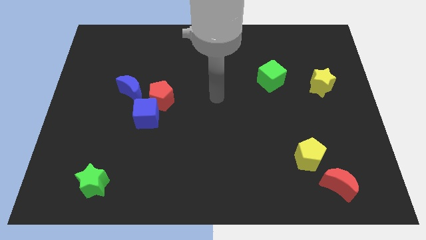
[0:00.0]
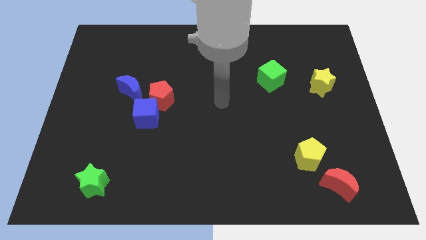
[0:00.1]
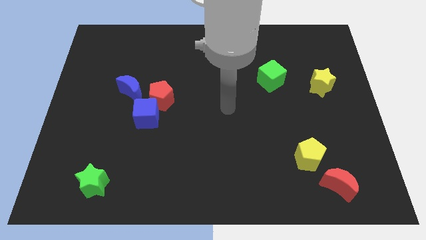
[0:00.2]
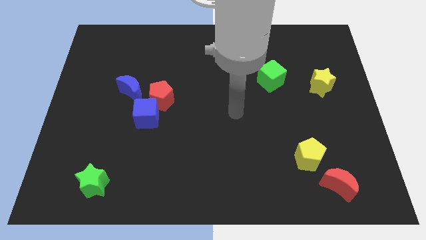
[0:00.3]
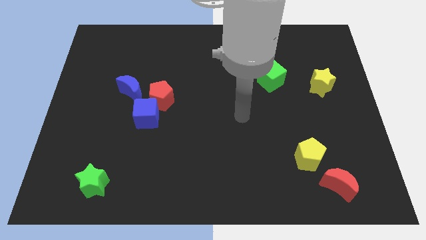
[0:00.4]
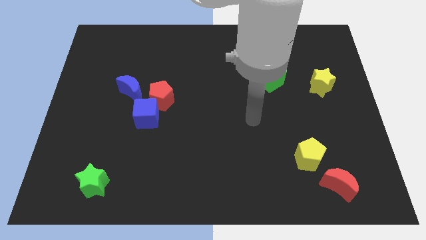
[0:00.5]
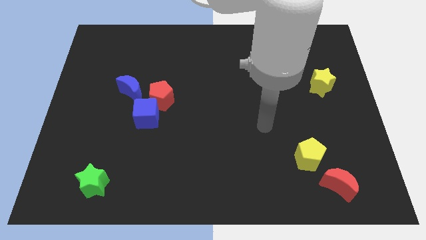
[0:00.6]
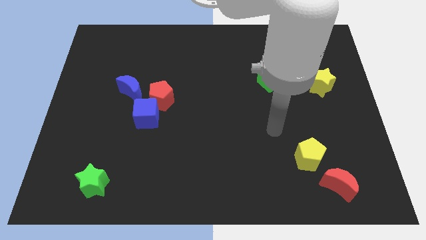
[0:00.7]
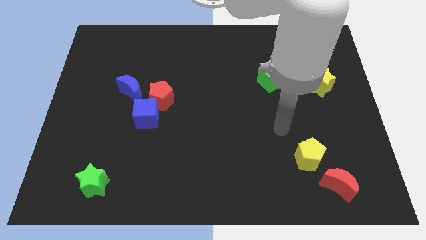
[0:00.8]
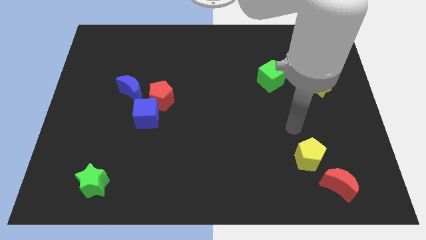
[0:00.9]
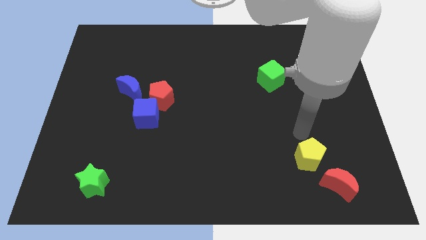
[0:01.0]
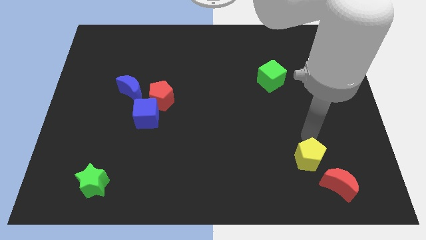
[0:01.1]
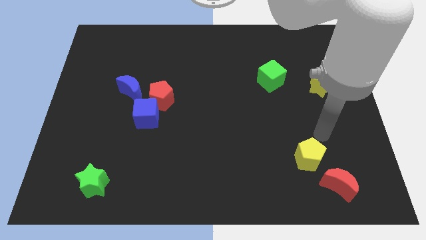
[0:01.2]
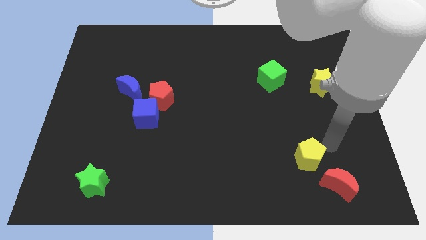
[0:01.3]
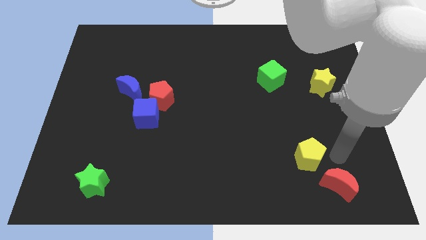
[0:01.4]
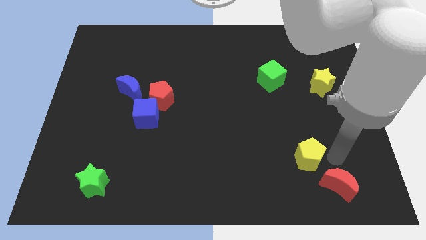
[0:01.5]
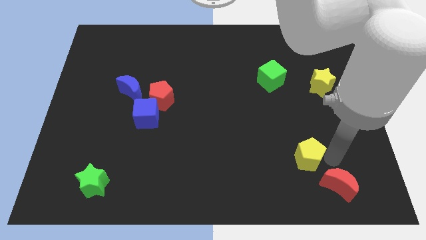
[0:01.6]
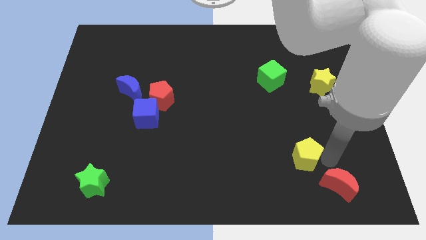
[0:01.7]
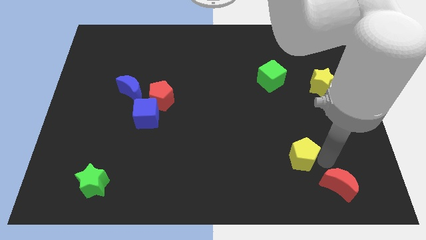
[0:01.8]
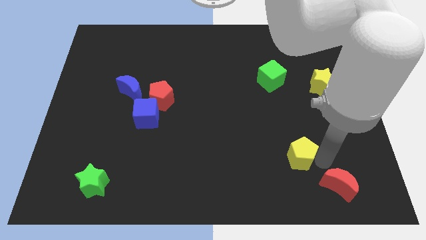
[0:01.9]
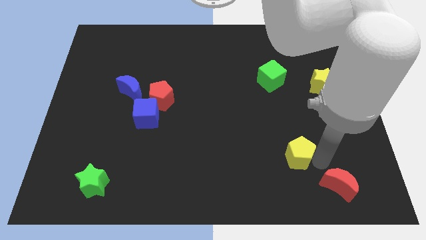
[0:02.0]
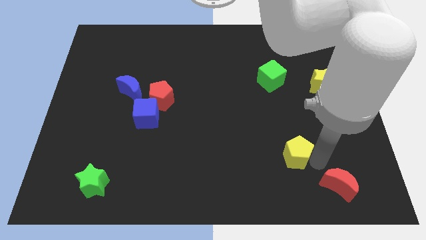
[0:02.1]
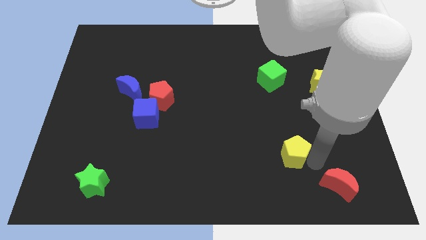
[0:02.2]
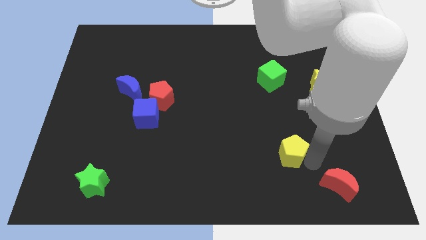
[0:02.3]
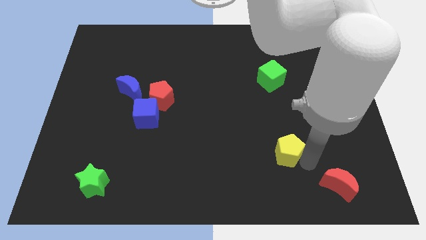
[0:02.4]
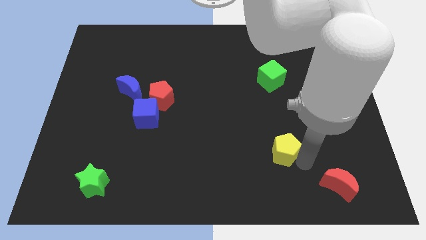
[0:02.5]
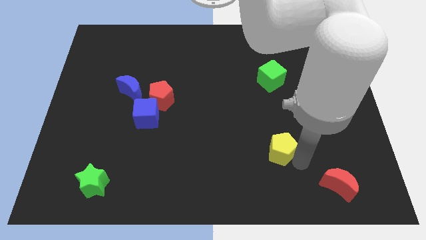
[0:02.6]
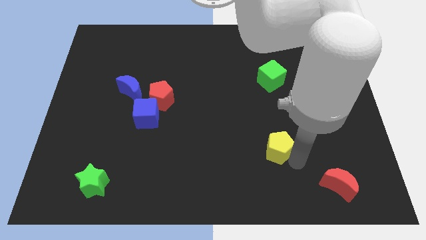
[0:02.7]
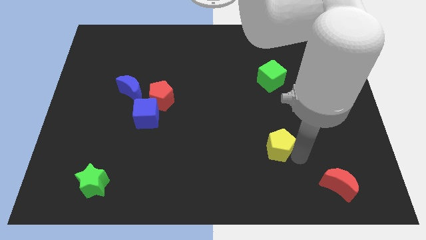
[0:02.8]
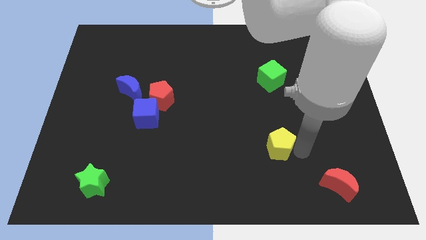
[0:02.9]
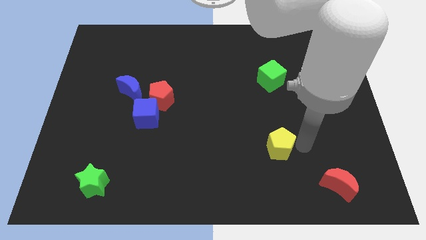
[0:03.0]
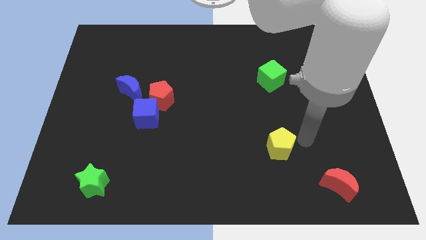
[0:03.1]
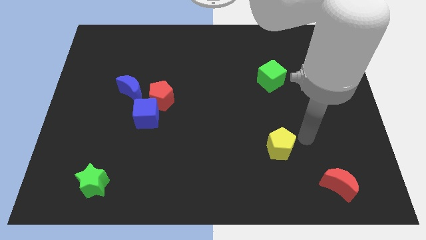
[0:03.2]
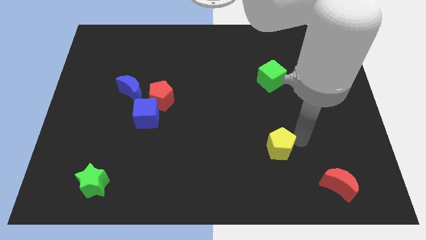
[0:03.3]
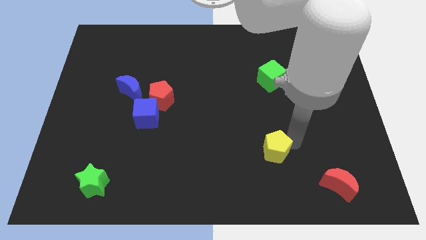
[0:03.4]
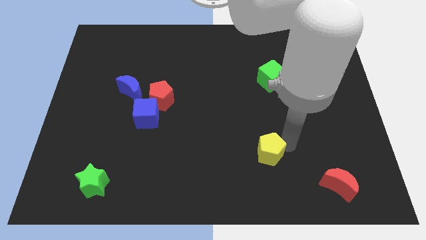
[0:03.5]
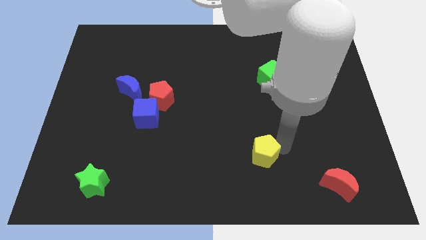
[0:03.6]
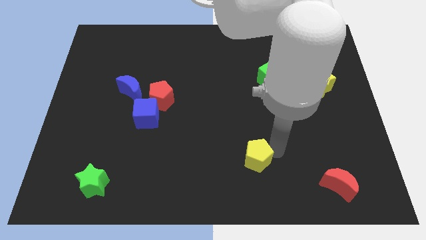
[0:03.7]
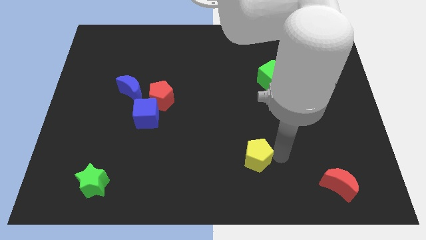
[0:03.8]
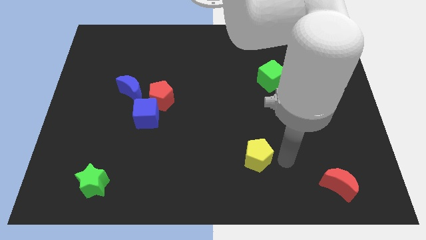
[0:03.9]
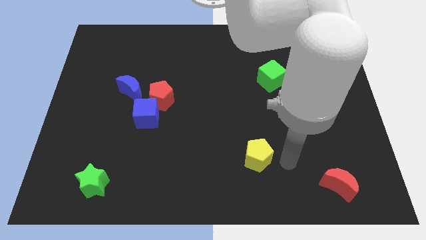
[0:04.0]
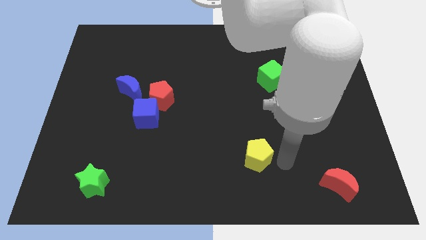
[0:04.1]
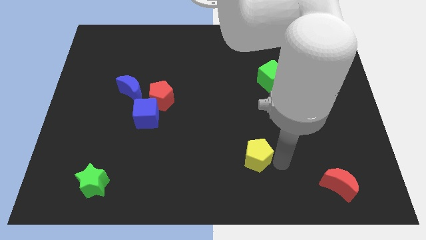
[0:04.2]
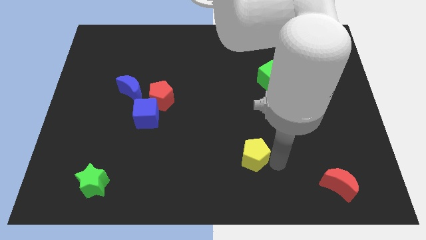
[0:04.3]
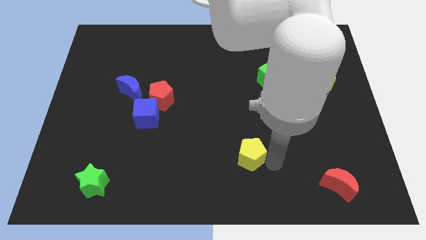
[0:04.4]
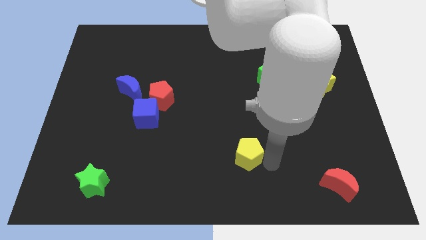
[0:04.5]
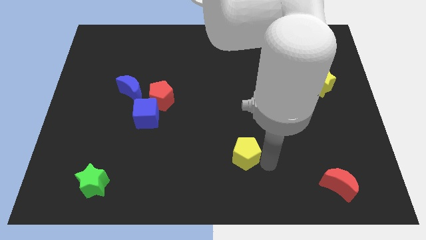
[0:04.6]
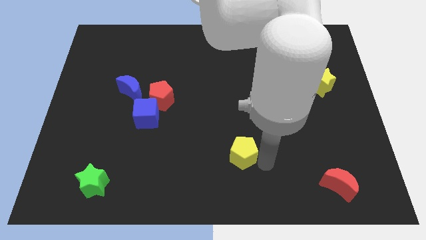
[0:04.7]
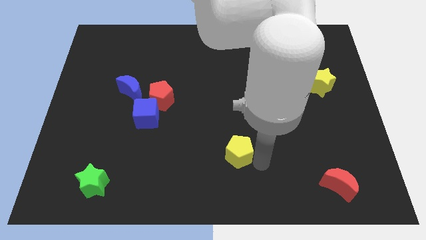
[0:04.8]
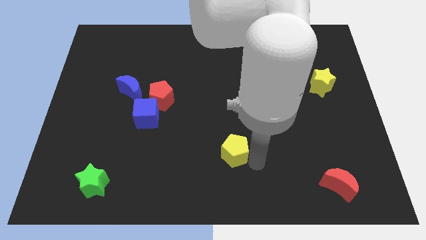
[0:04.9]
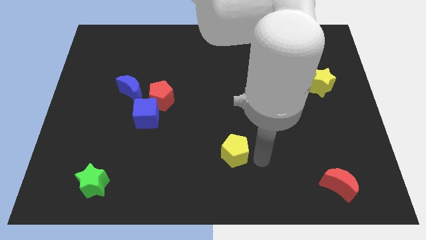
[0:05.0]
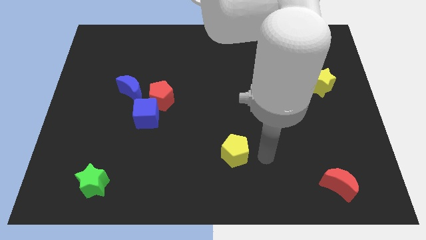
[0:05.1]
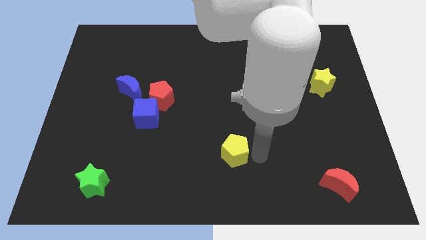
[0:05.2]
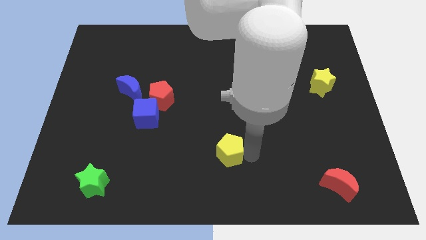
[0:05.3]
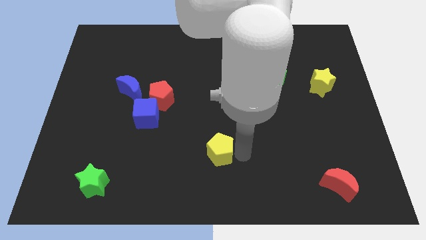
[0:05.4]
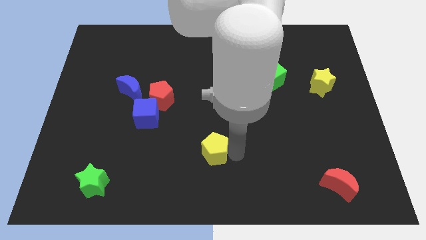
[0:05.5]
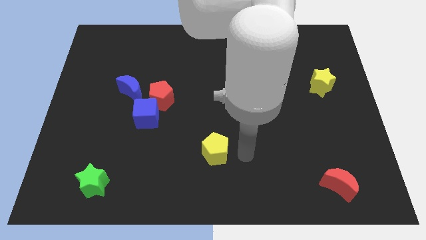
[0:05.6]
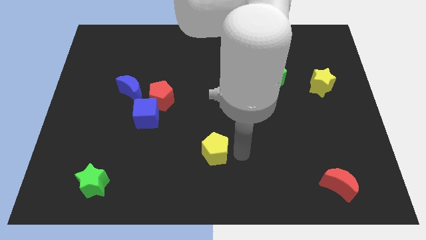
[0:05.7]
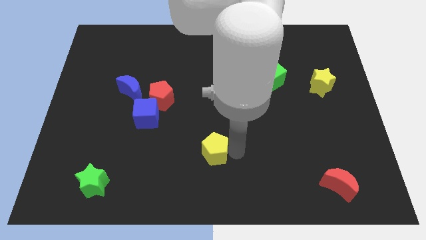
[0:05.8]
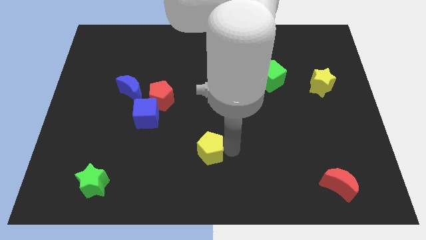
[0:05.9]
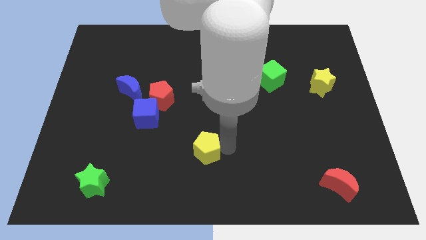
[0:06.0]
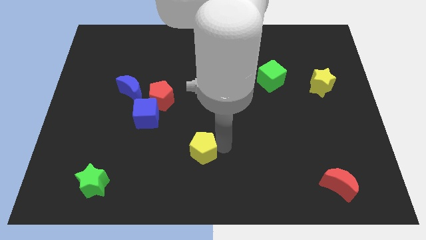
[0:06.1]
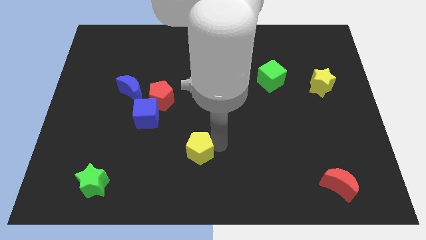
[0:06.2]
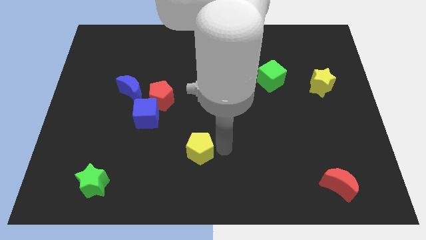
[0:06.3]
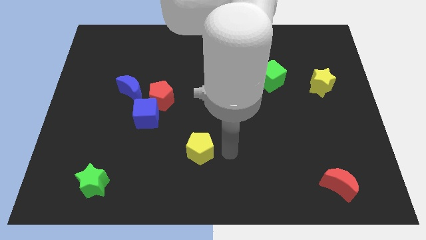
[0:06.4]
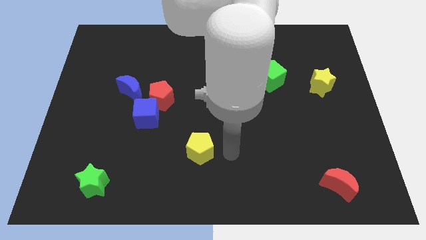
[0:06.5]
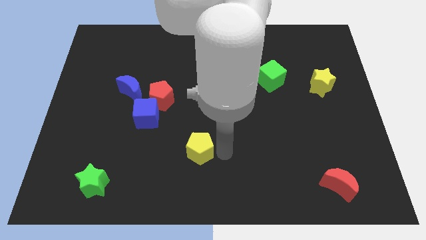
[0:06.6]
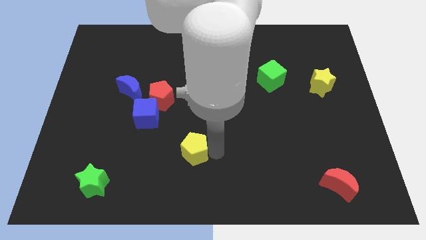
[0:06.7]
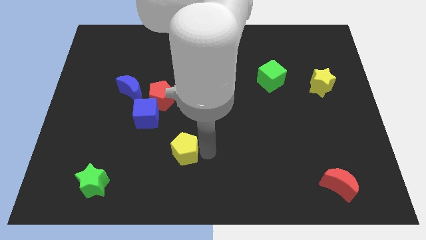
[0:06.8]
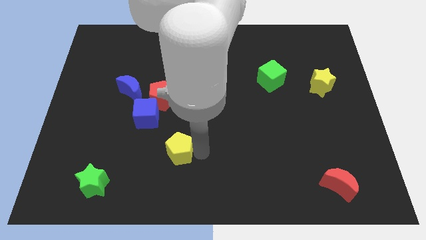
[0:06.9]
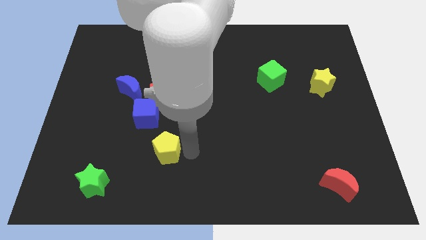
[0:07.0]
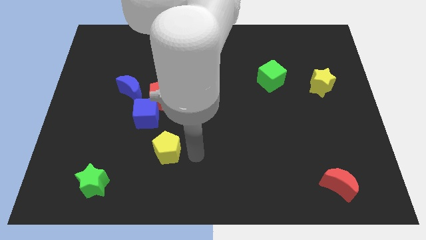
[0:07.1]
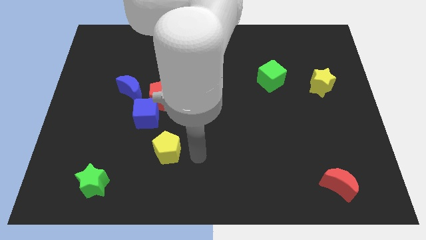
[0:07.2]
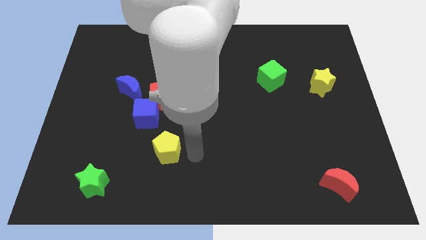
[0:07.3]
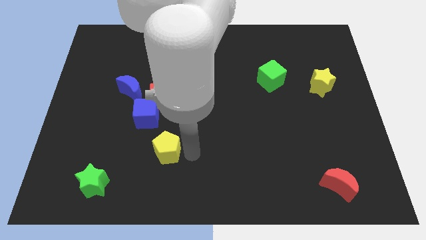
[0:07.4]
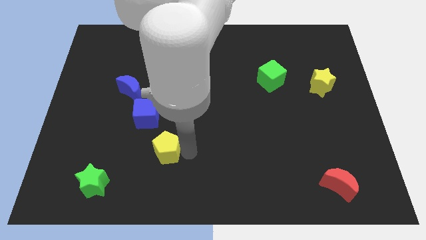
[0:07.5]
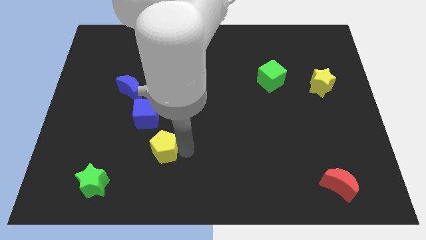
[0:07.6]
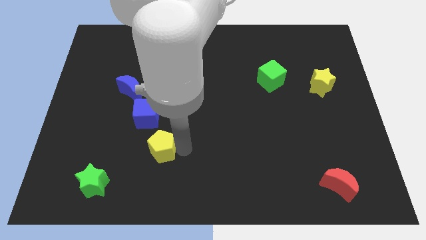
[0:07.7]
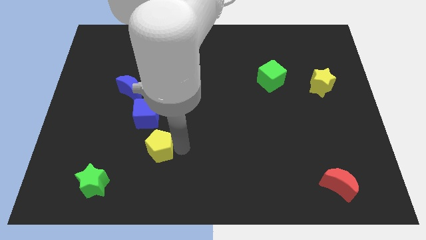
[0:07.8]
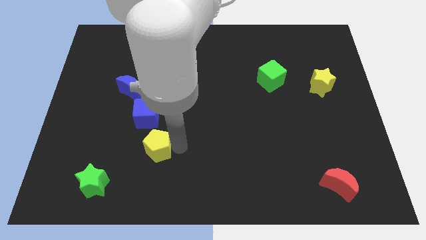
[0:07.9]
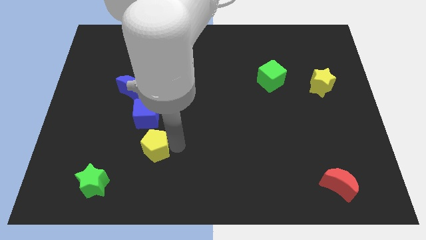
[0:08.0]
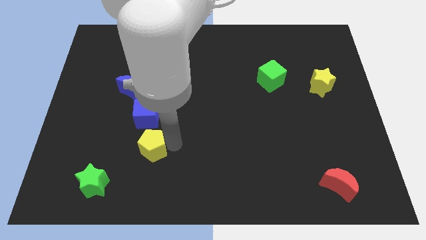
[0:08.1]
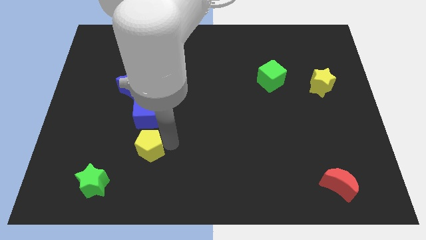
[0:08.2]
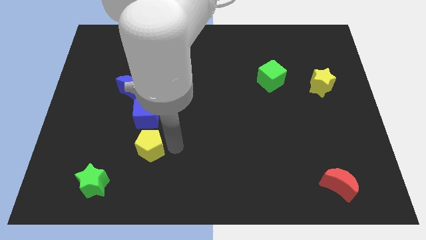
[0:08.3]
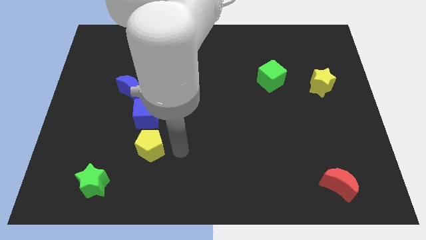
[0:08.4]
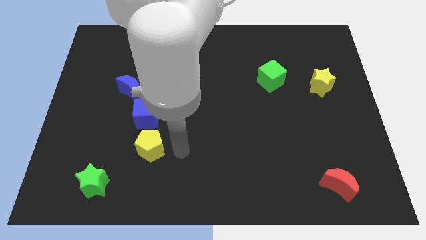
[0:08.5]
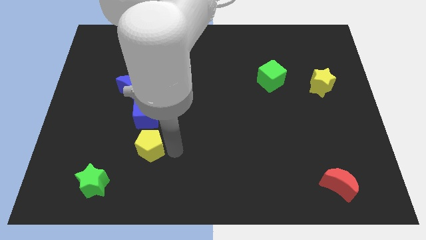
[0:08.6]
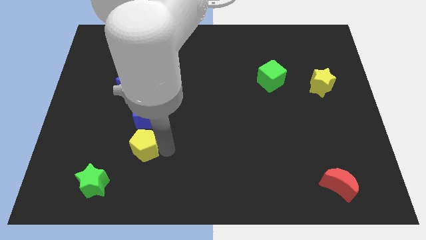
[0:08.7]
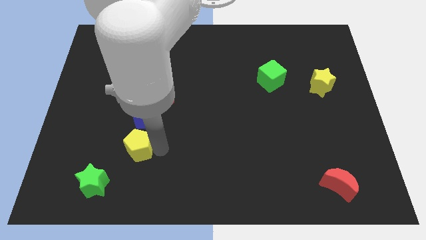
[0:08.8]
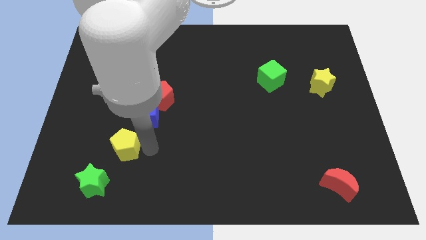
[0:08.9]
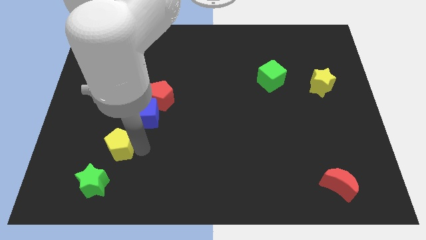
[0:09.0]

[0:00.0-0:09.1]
move the yellow pentagon to the top of the green star
